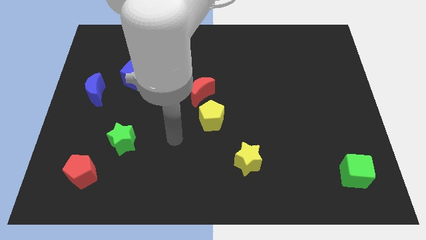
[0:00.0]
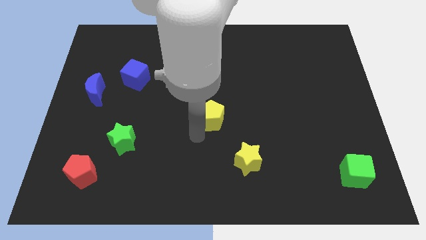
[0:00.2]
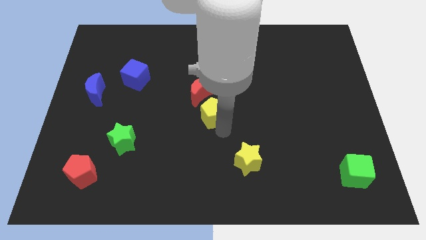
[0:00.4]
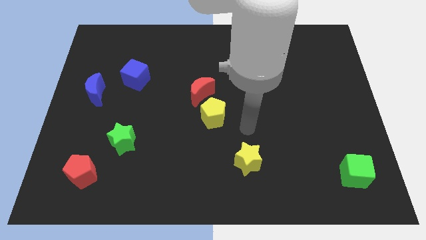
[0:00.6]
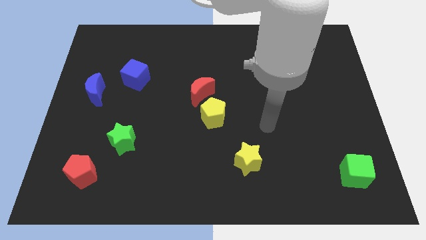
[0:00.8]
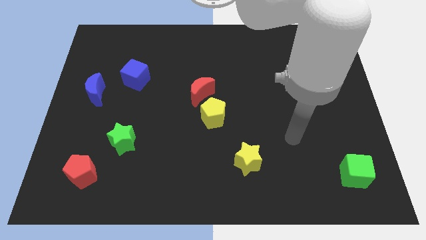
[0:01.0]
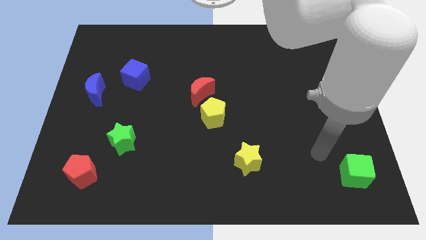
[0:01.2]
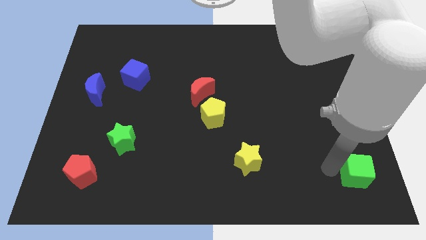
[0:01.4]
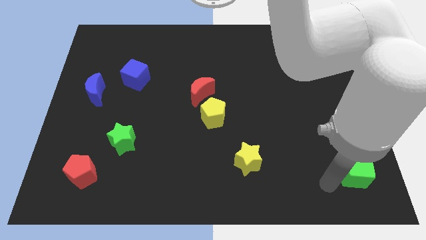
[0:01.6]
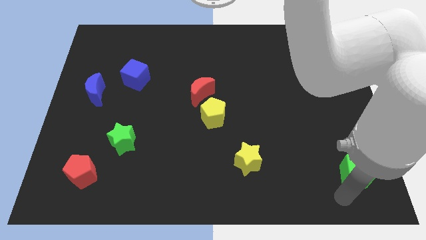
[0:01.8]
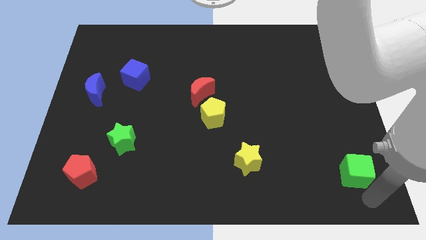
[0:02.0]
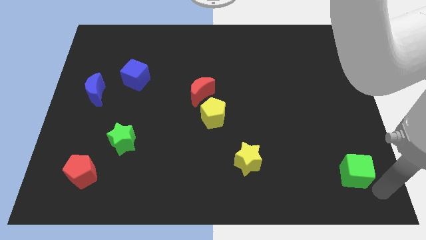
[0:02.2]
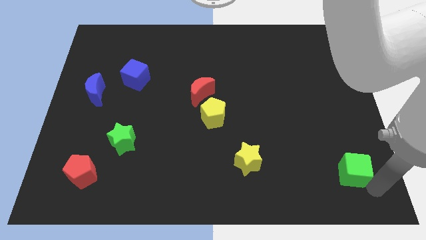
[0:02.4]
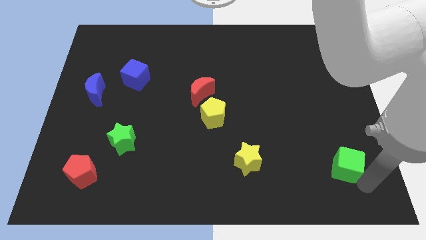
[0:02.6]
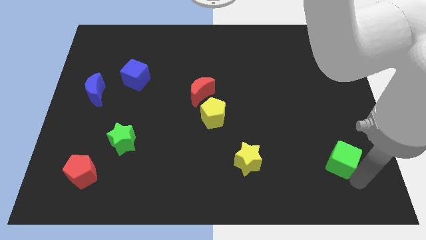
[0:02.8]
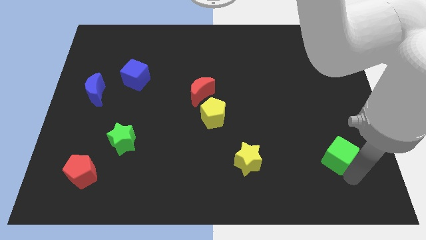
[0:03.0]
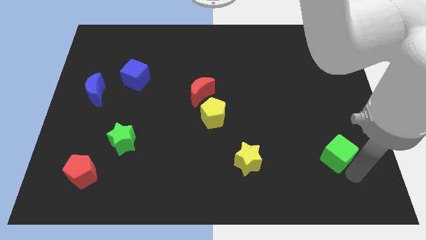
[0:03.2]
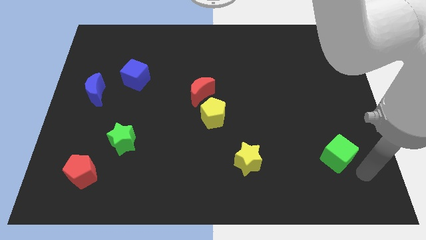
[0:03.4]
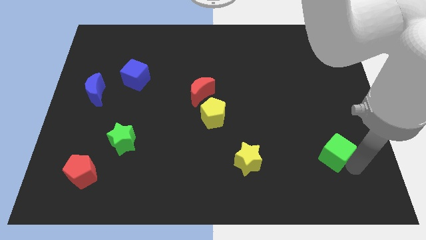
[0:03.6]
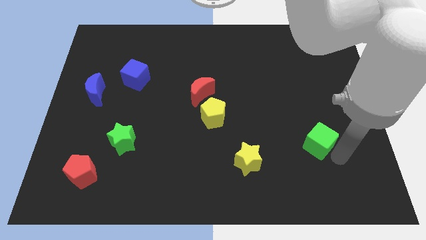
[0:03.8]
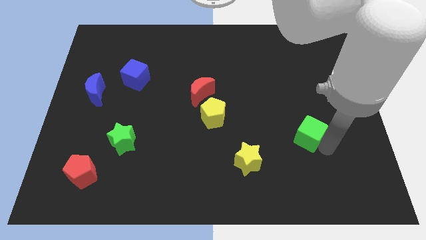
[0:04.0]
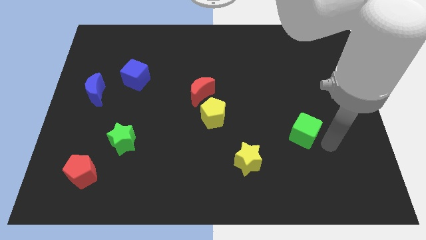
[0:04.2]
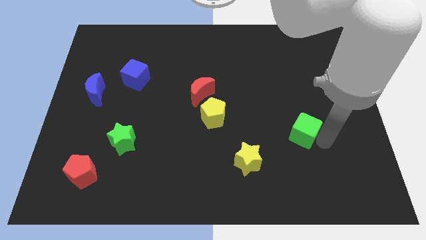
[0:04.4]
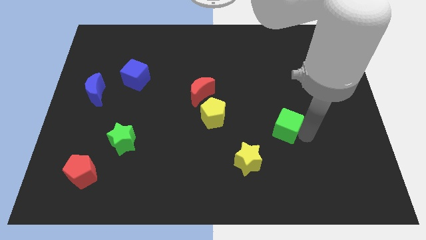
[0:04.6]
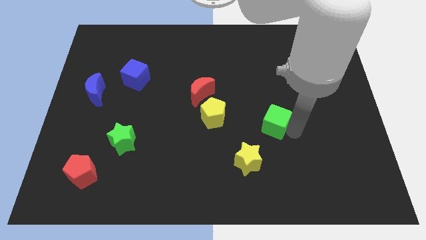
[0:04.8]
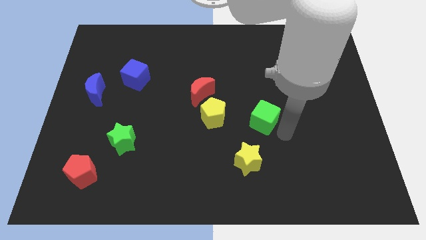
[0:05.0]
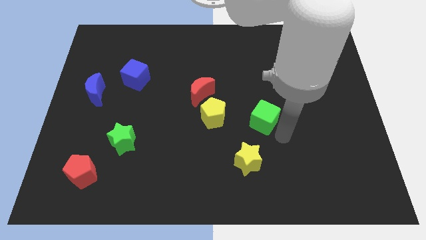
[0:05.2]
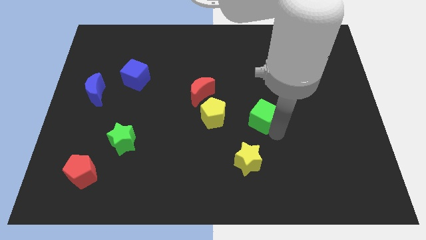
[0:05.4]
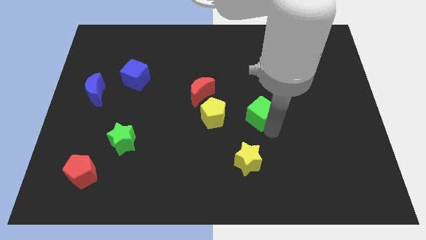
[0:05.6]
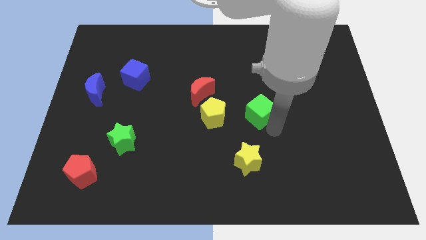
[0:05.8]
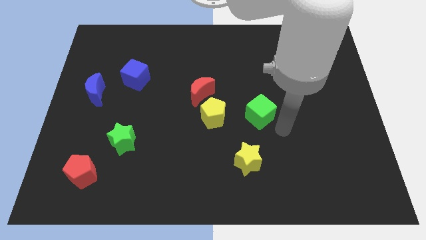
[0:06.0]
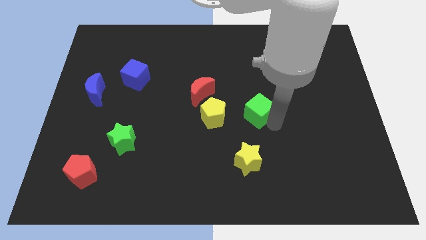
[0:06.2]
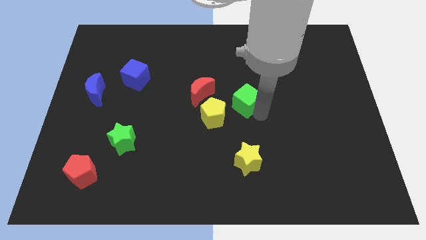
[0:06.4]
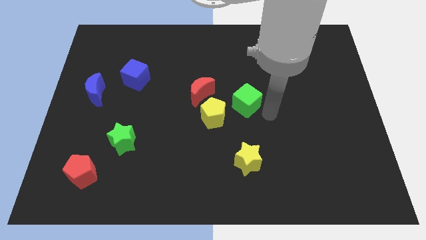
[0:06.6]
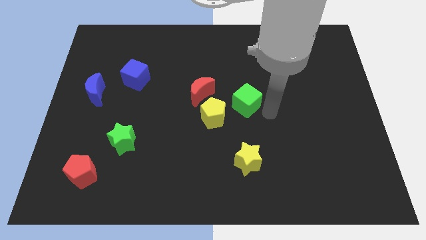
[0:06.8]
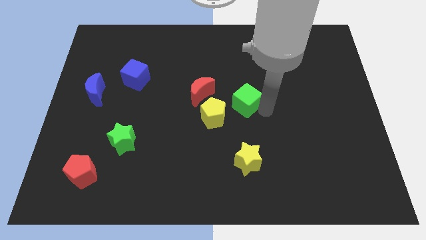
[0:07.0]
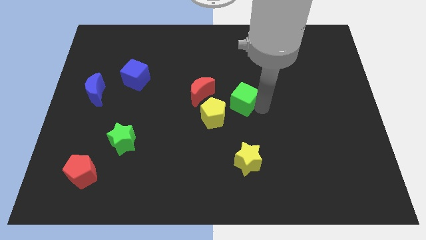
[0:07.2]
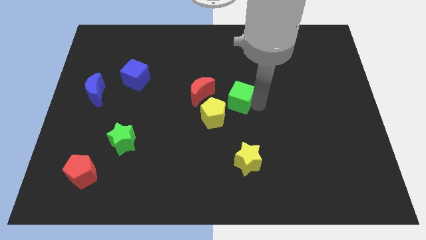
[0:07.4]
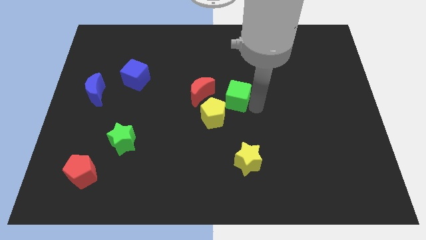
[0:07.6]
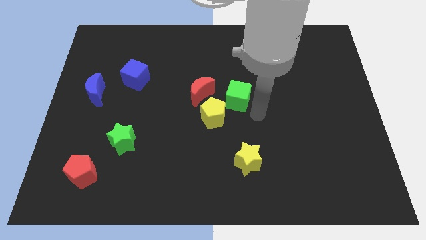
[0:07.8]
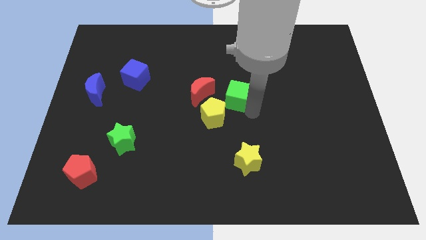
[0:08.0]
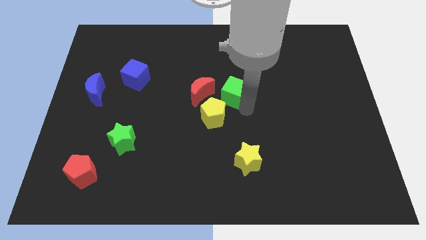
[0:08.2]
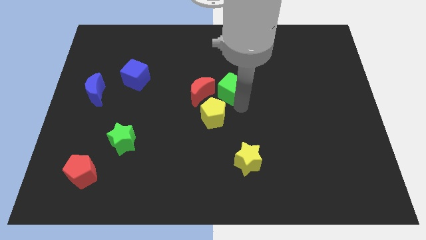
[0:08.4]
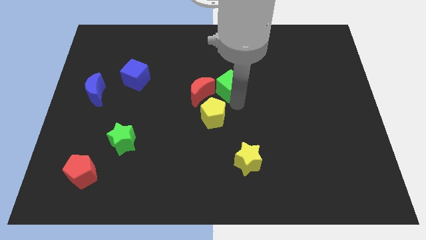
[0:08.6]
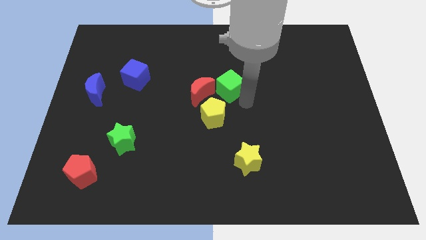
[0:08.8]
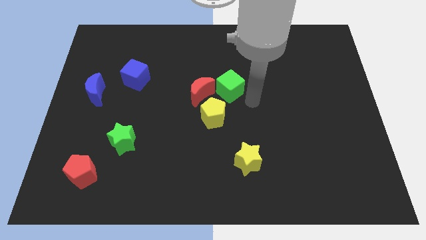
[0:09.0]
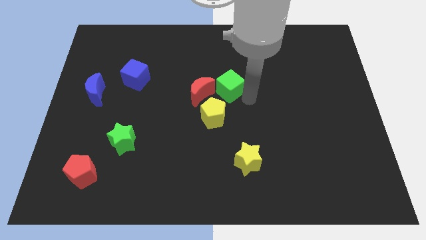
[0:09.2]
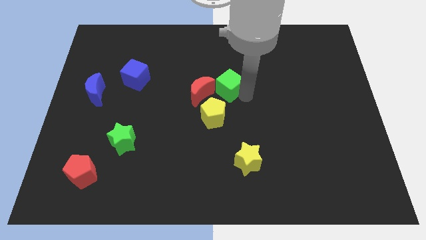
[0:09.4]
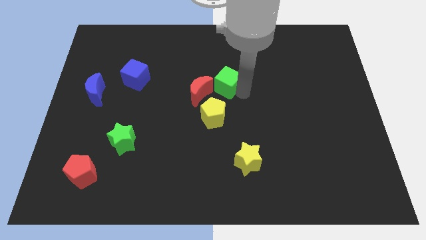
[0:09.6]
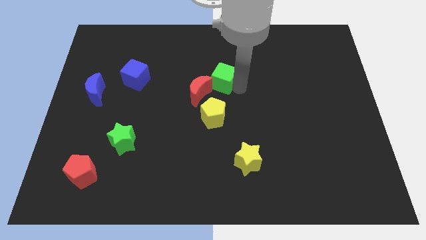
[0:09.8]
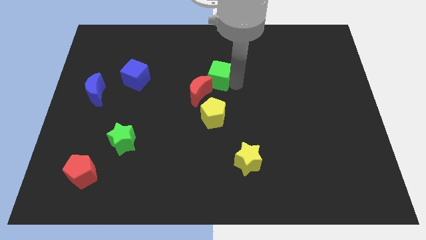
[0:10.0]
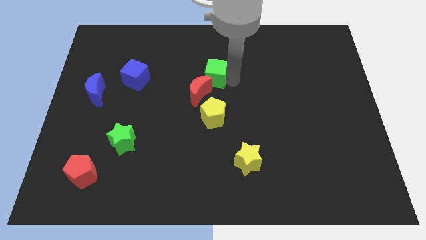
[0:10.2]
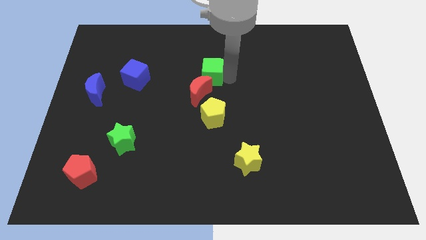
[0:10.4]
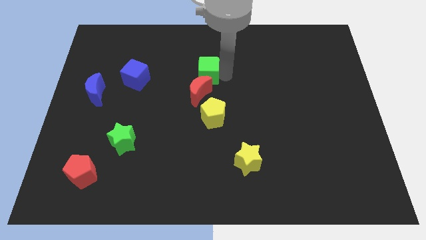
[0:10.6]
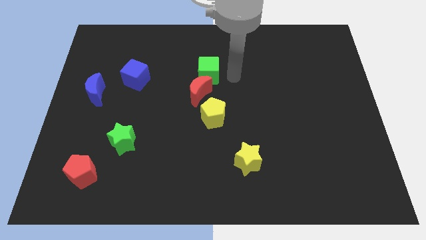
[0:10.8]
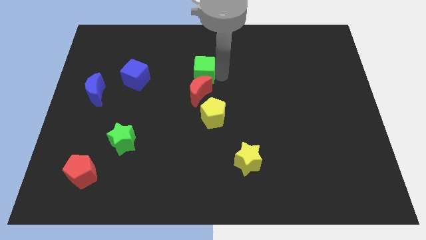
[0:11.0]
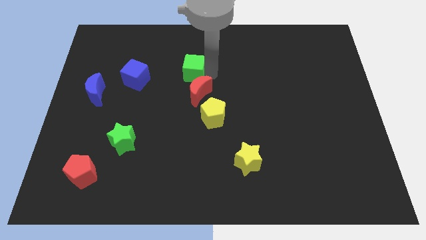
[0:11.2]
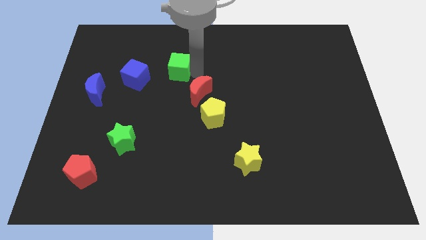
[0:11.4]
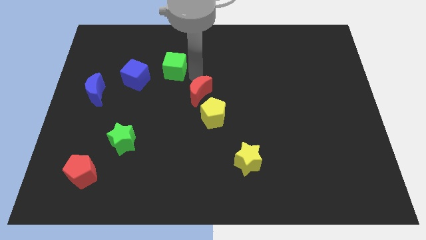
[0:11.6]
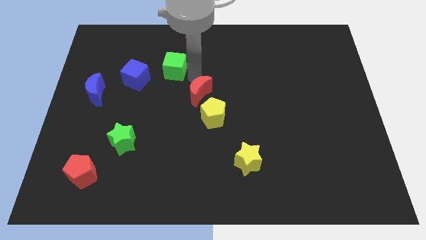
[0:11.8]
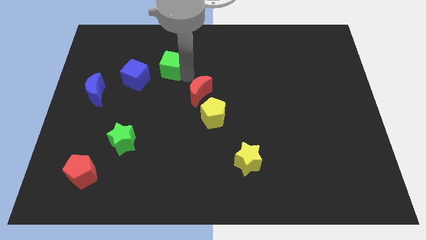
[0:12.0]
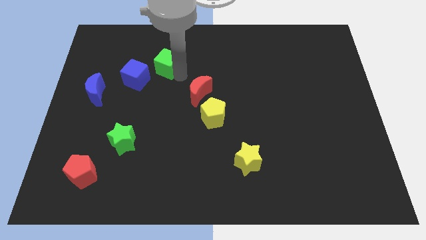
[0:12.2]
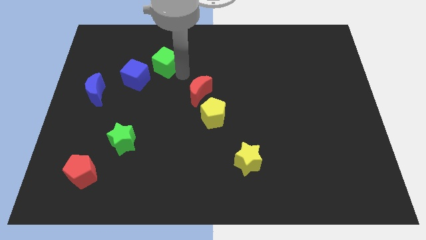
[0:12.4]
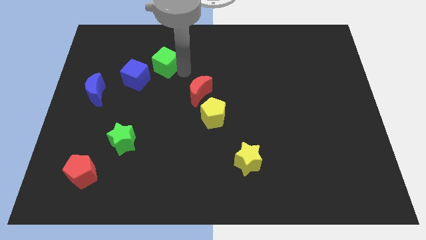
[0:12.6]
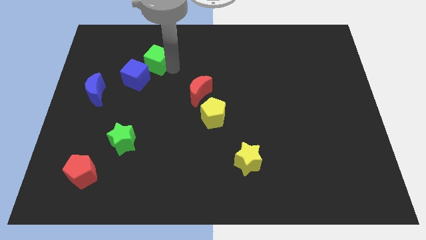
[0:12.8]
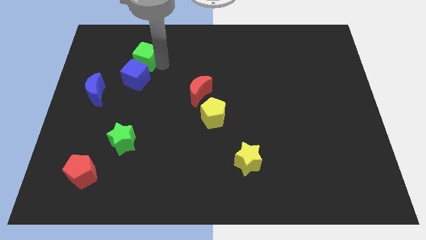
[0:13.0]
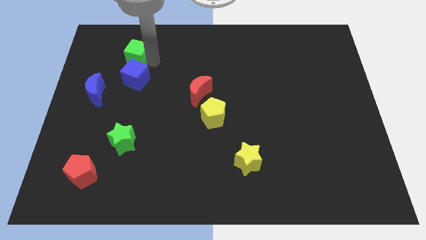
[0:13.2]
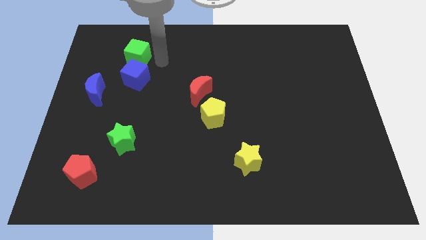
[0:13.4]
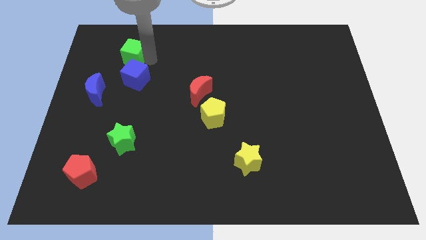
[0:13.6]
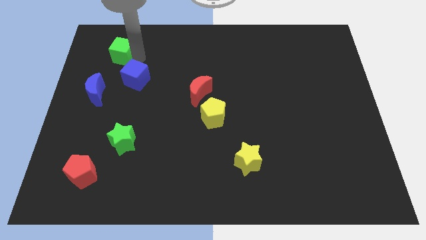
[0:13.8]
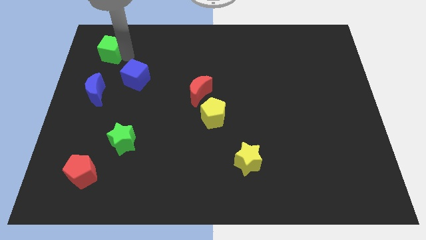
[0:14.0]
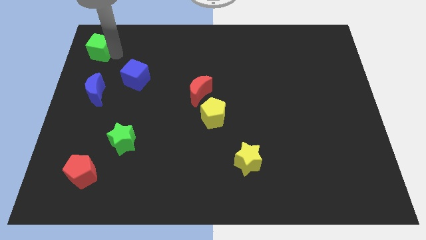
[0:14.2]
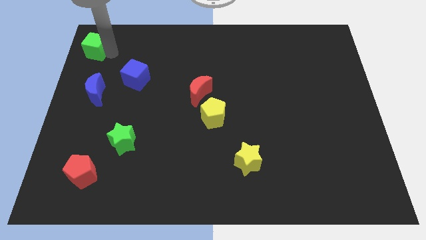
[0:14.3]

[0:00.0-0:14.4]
push the green cube to the upper left corner
